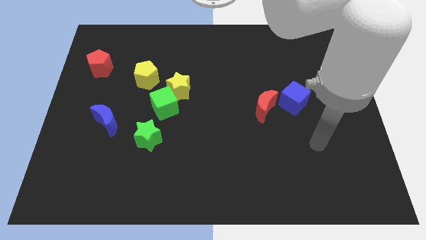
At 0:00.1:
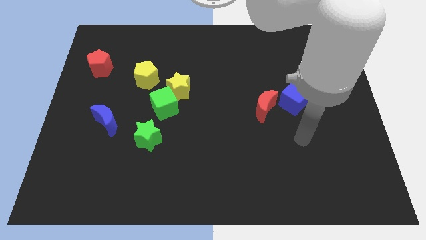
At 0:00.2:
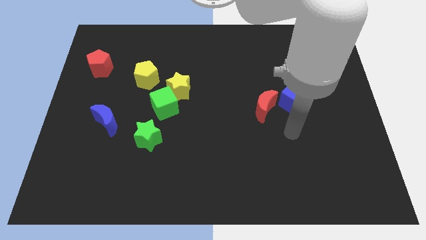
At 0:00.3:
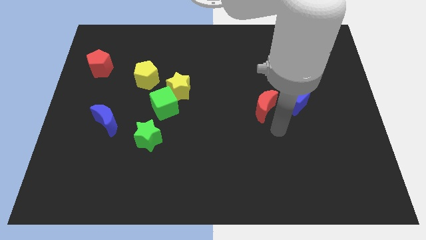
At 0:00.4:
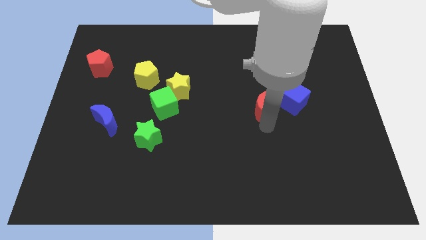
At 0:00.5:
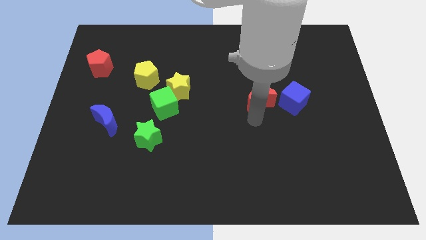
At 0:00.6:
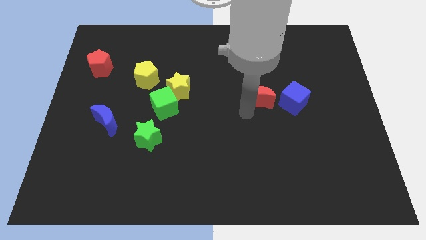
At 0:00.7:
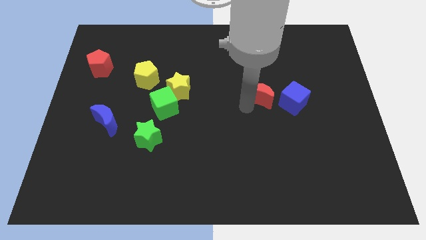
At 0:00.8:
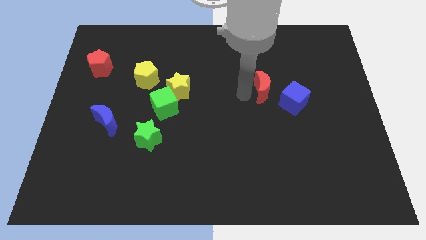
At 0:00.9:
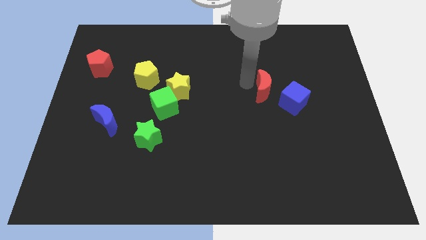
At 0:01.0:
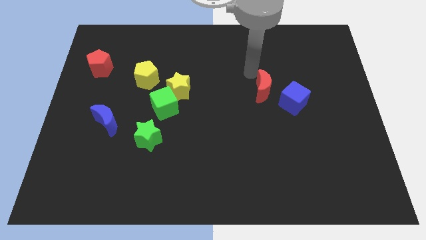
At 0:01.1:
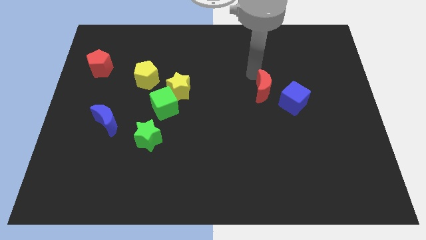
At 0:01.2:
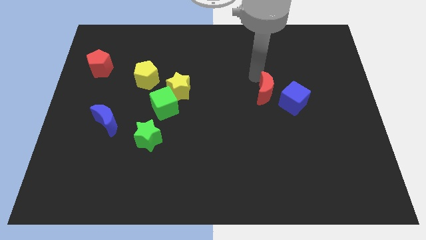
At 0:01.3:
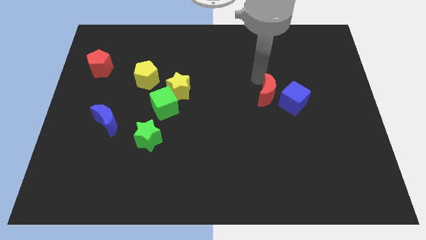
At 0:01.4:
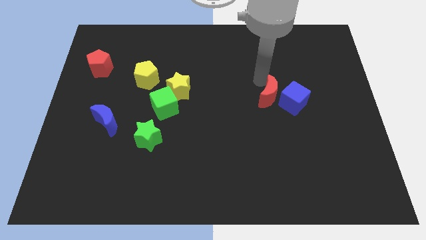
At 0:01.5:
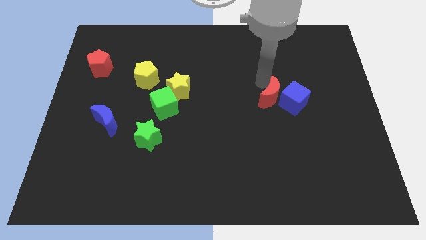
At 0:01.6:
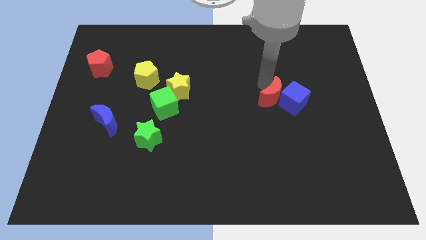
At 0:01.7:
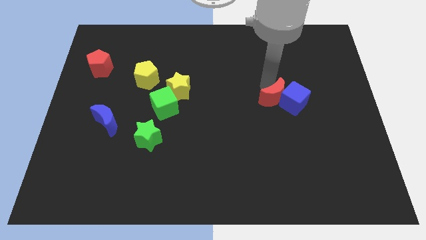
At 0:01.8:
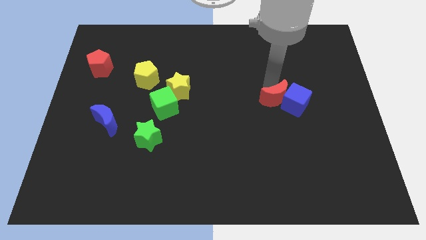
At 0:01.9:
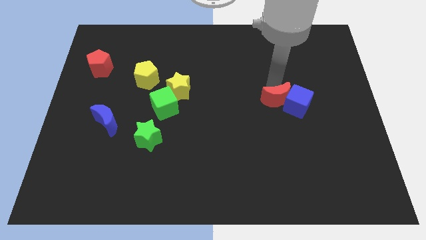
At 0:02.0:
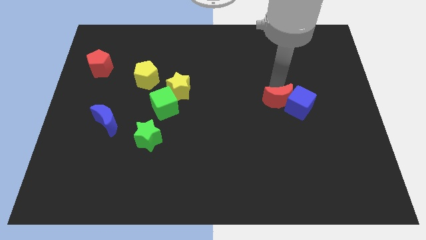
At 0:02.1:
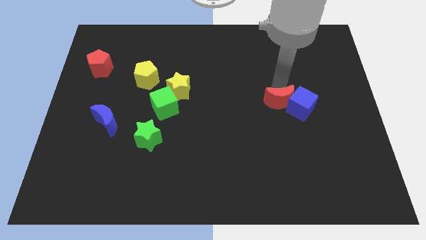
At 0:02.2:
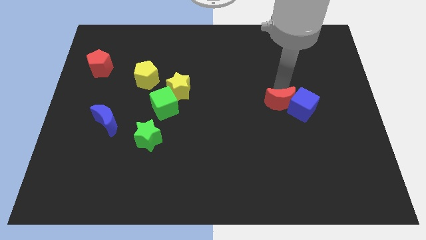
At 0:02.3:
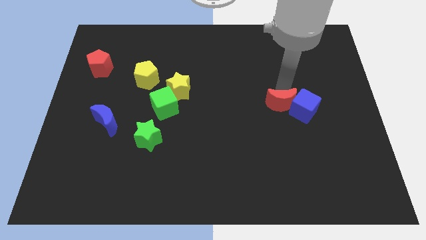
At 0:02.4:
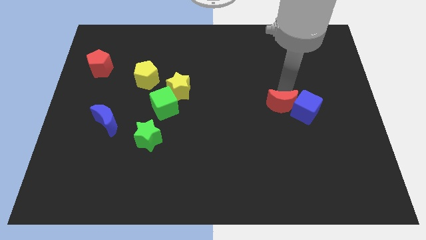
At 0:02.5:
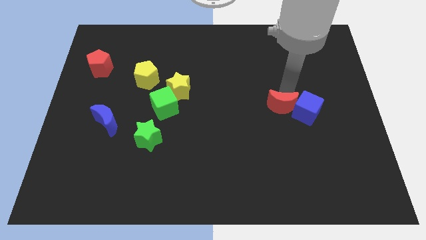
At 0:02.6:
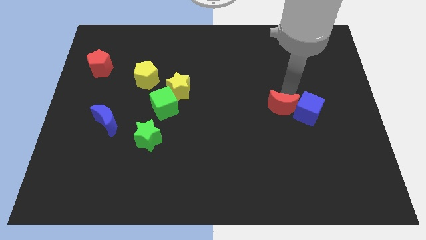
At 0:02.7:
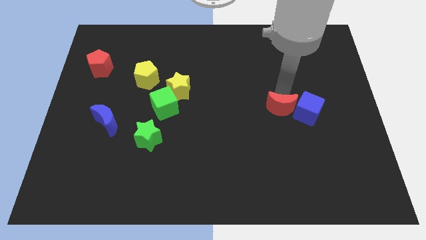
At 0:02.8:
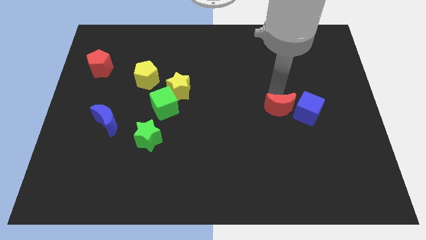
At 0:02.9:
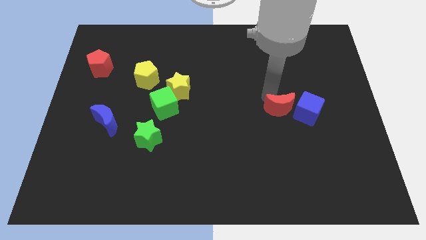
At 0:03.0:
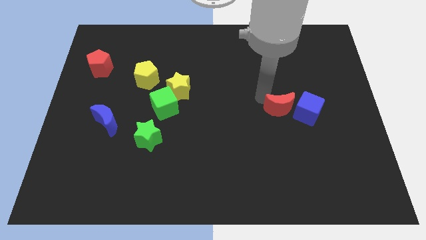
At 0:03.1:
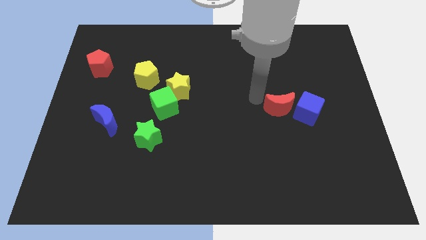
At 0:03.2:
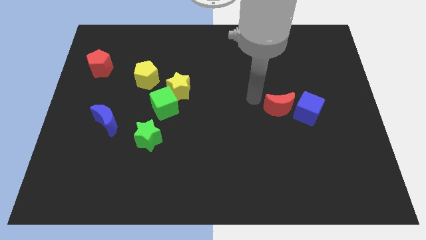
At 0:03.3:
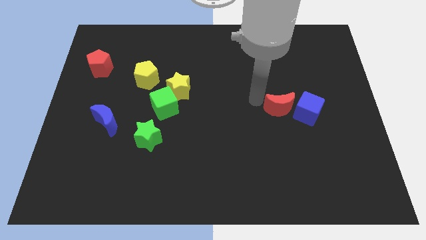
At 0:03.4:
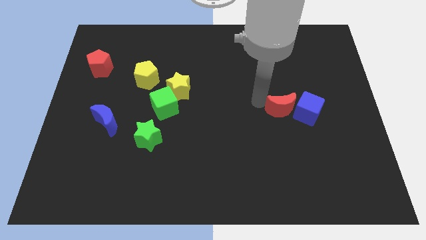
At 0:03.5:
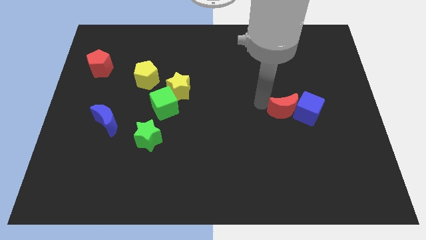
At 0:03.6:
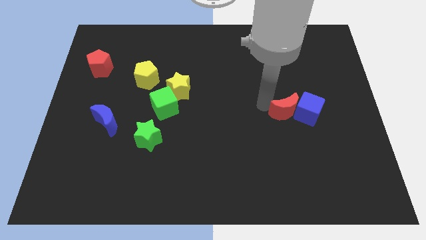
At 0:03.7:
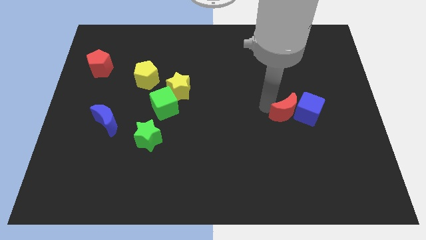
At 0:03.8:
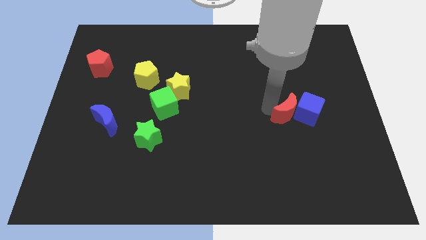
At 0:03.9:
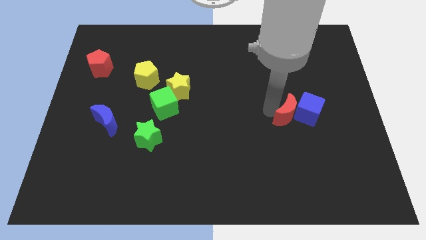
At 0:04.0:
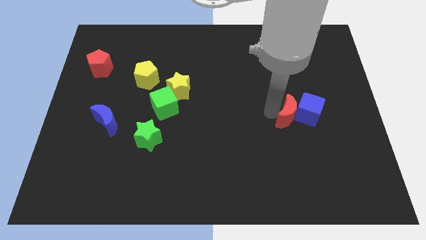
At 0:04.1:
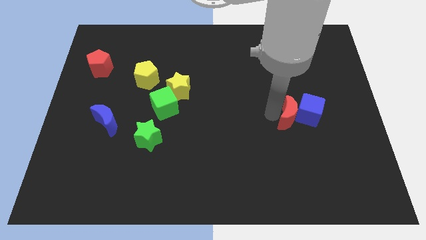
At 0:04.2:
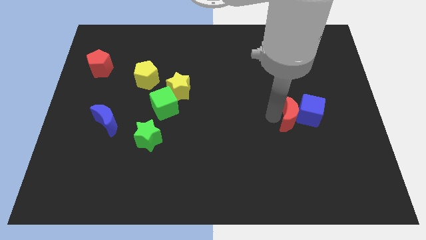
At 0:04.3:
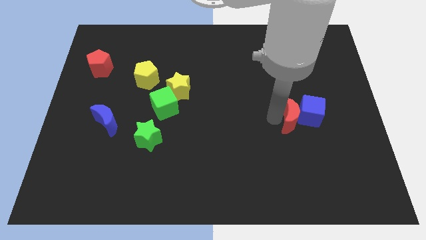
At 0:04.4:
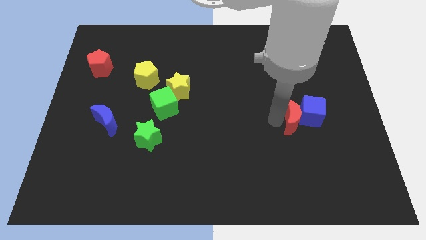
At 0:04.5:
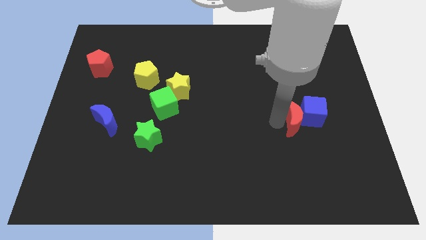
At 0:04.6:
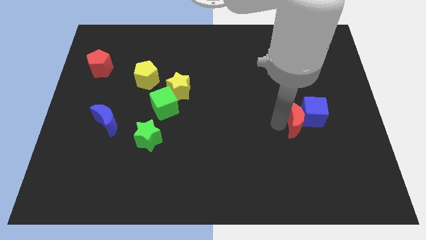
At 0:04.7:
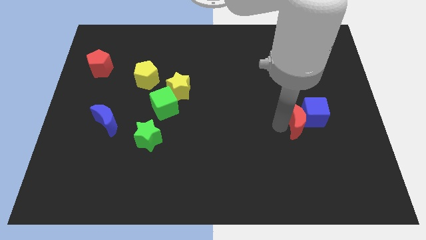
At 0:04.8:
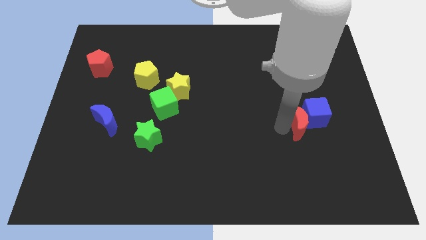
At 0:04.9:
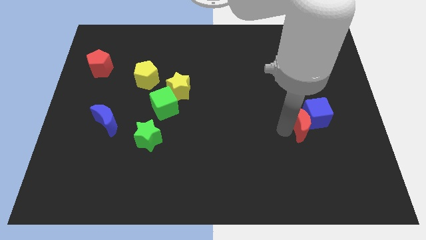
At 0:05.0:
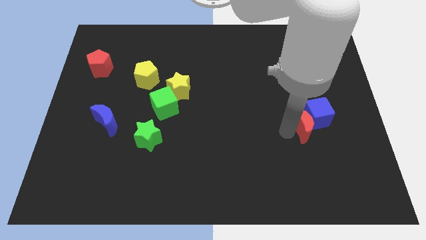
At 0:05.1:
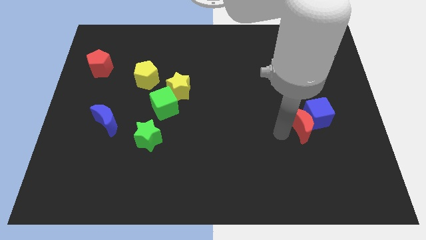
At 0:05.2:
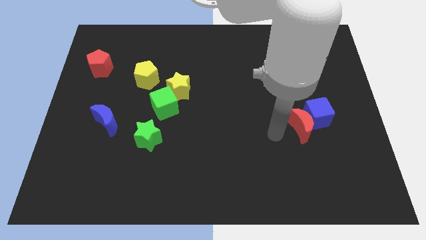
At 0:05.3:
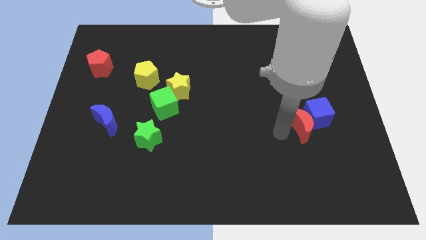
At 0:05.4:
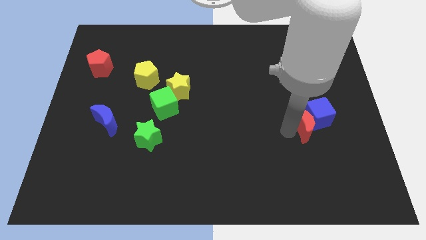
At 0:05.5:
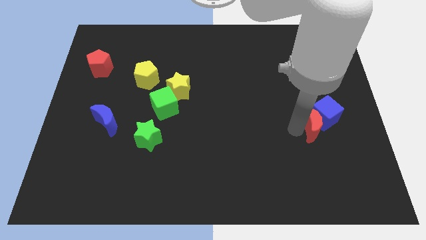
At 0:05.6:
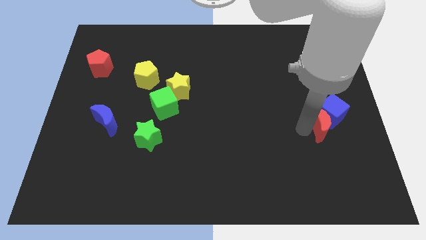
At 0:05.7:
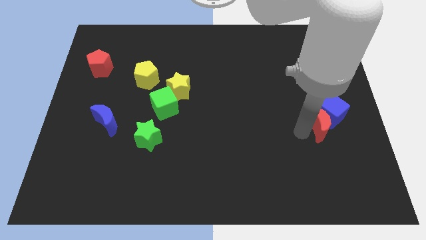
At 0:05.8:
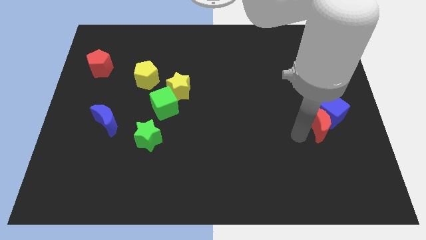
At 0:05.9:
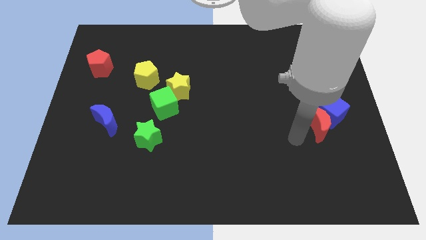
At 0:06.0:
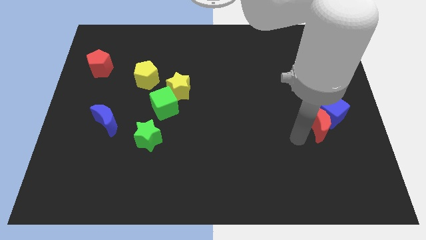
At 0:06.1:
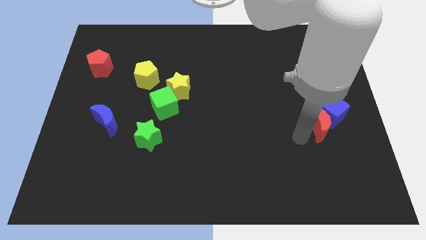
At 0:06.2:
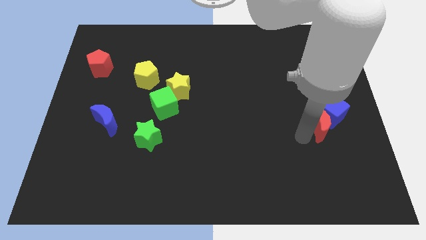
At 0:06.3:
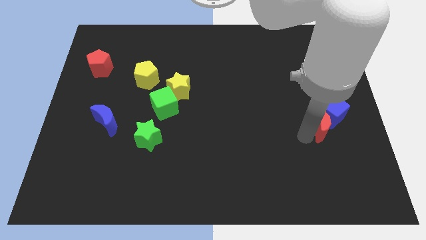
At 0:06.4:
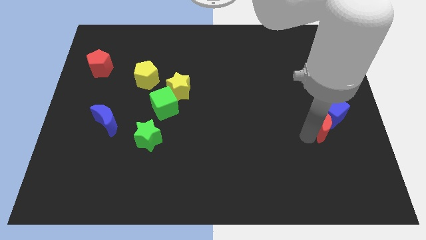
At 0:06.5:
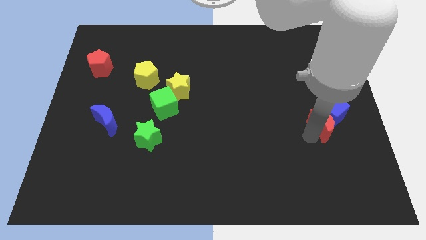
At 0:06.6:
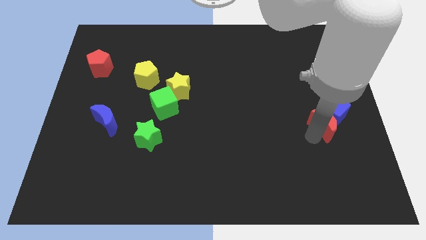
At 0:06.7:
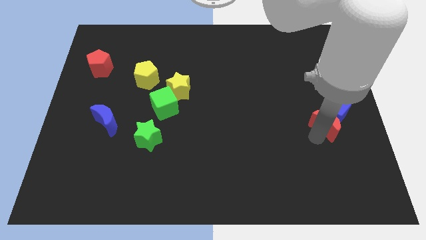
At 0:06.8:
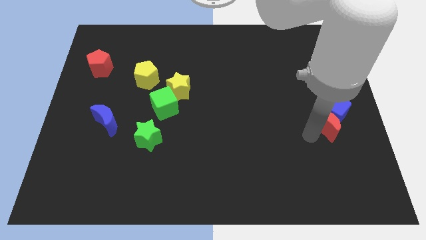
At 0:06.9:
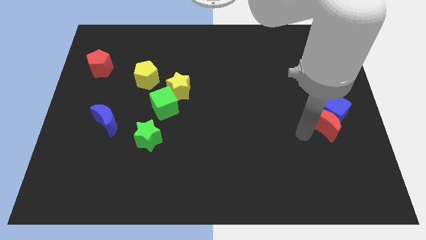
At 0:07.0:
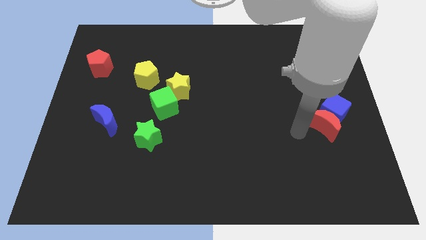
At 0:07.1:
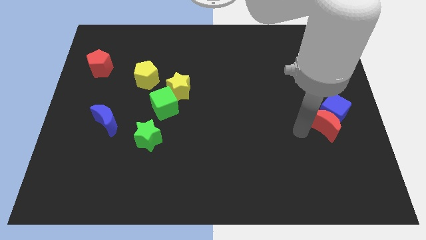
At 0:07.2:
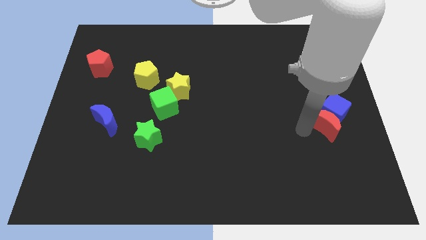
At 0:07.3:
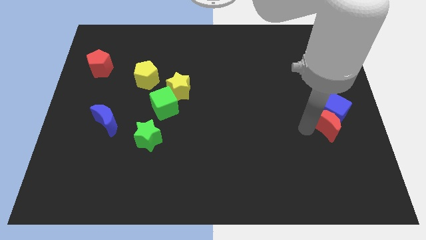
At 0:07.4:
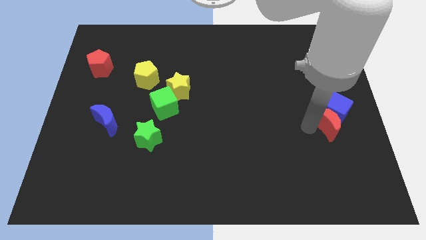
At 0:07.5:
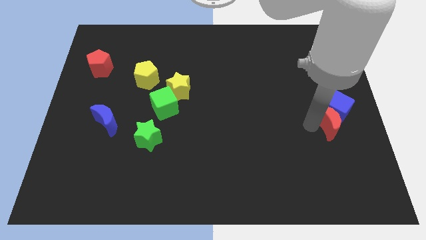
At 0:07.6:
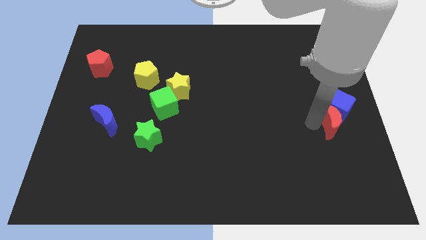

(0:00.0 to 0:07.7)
put the red moon to the right side of the board
